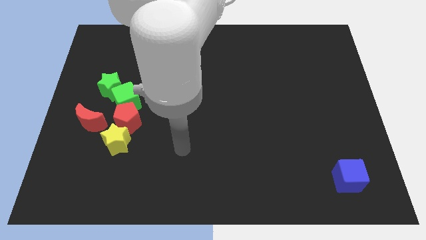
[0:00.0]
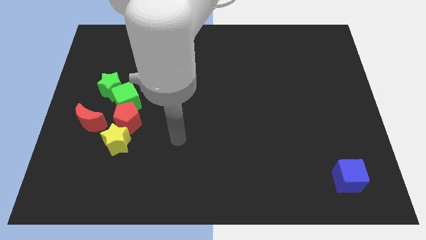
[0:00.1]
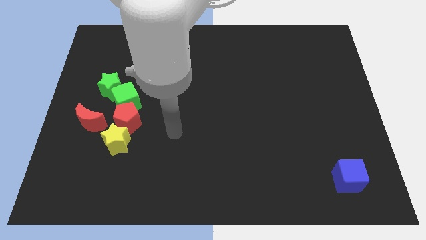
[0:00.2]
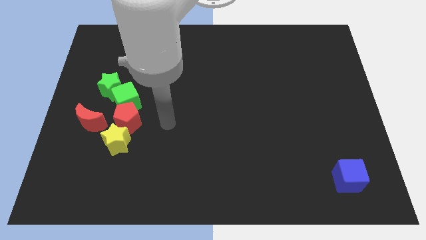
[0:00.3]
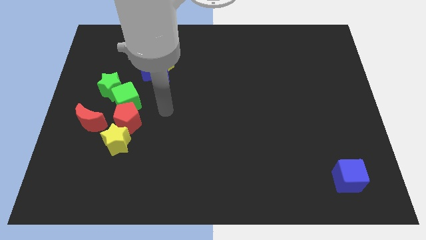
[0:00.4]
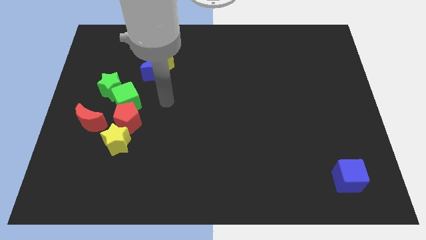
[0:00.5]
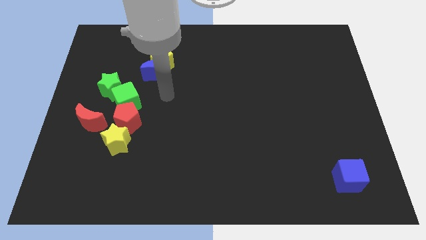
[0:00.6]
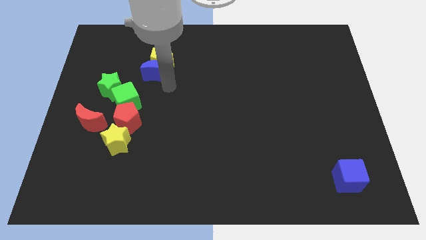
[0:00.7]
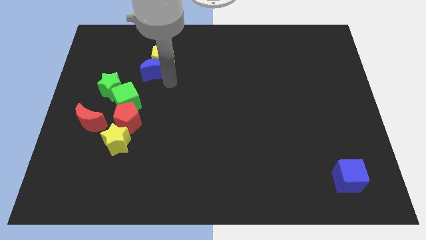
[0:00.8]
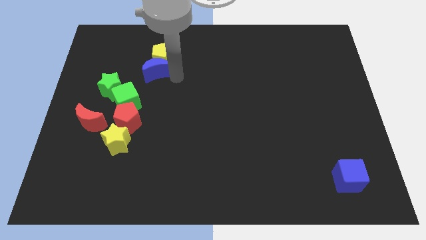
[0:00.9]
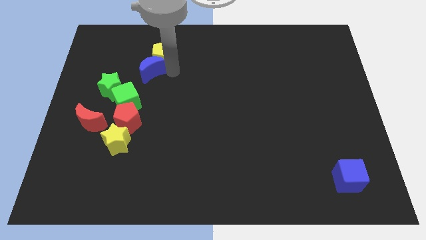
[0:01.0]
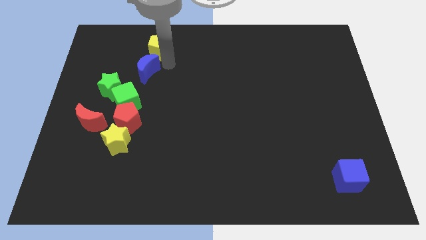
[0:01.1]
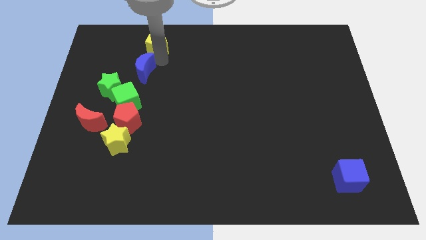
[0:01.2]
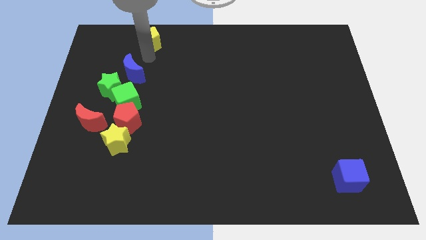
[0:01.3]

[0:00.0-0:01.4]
move the blue moon away from the yellow pentagon

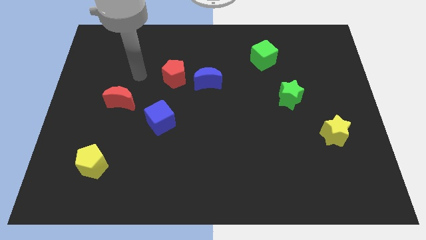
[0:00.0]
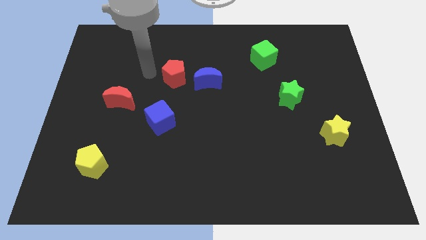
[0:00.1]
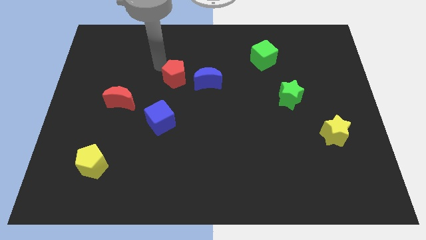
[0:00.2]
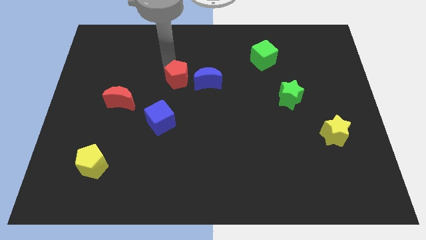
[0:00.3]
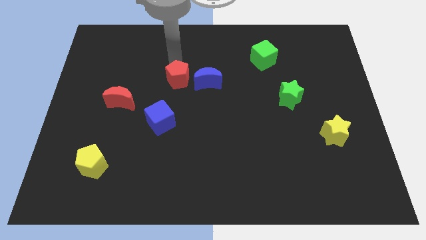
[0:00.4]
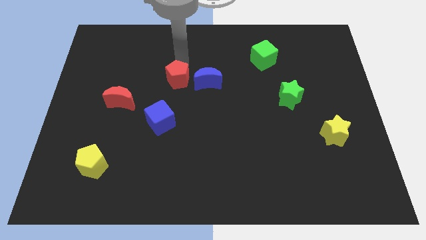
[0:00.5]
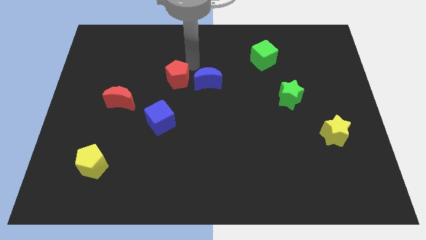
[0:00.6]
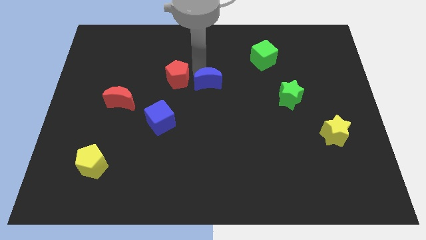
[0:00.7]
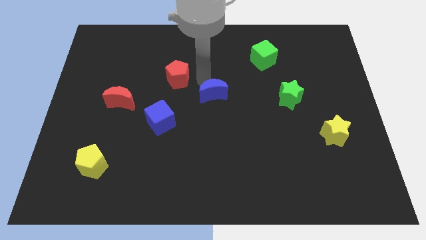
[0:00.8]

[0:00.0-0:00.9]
move the red pentagon away from the blue moon

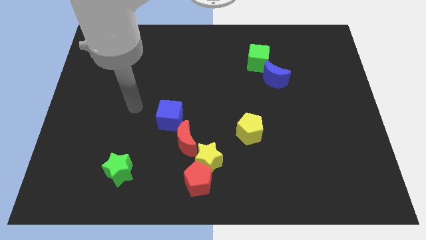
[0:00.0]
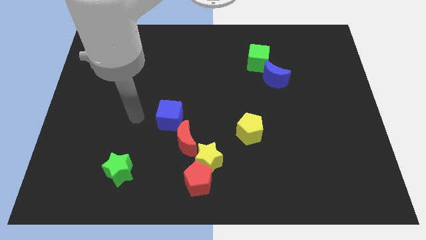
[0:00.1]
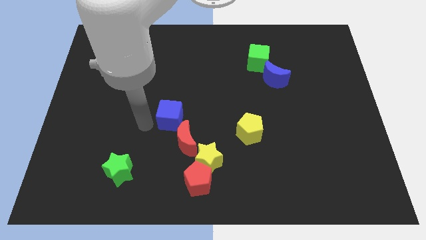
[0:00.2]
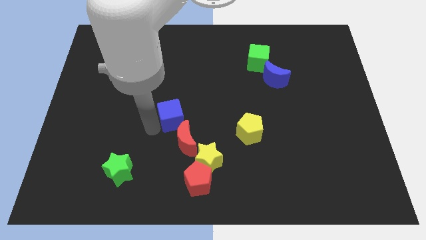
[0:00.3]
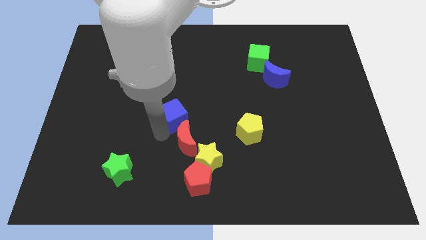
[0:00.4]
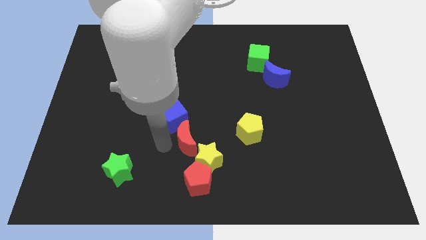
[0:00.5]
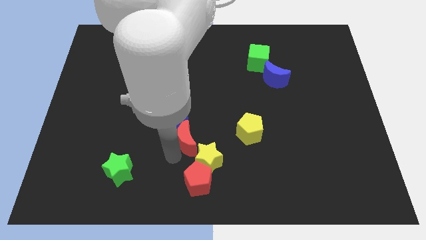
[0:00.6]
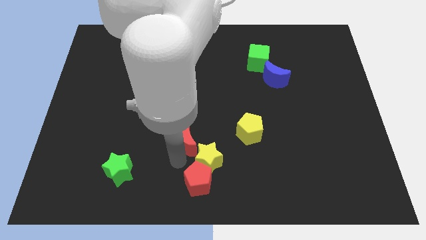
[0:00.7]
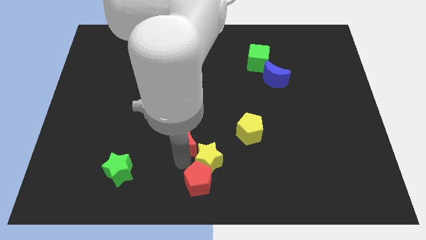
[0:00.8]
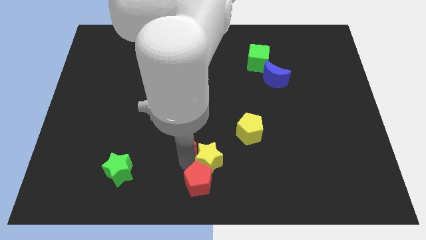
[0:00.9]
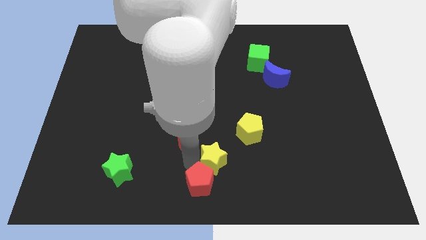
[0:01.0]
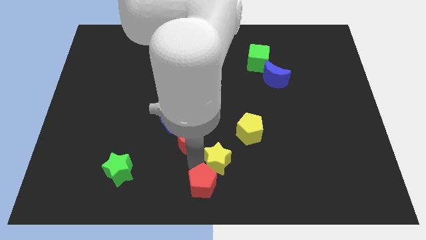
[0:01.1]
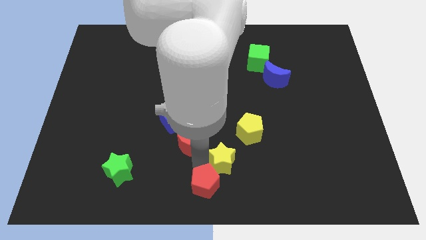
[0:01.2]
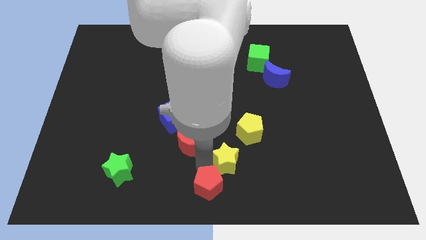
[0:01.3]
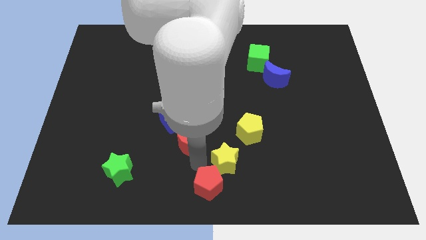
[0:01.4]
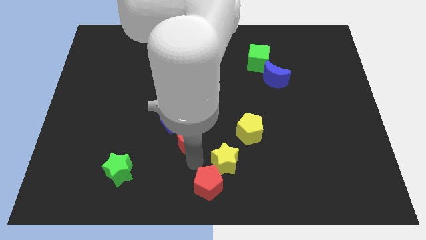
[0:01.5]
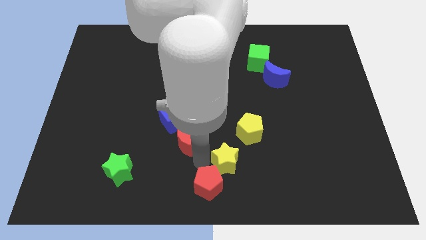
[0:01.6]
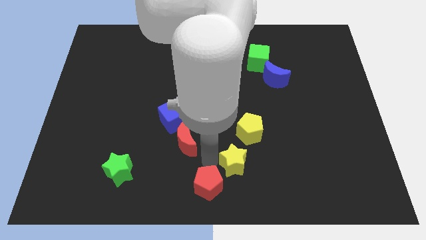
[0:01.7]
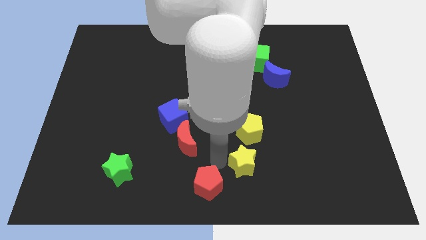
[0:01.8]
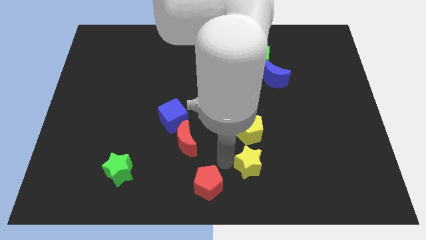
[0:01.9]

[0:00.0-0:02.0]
separate the yellow star from the red pentagon and red moon

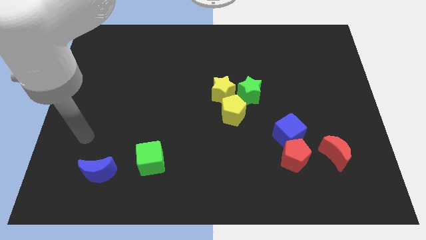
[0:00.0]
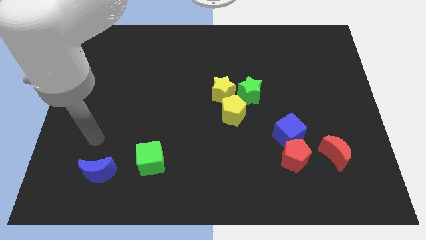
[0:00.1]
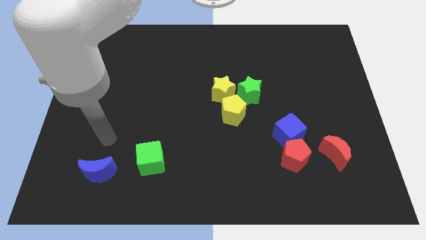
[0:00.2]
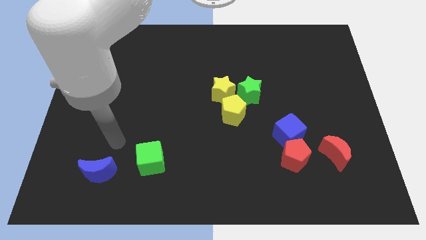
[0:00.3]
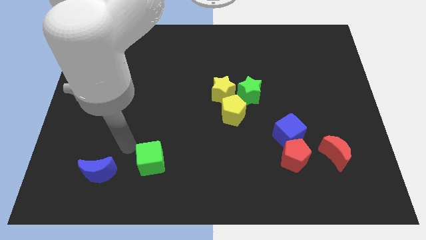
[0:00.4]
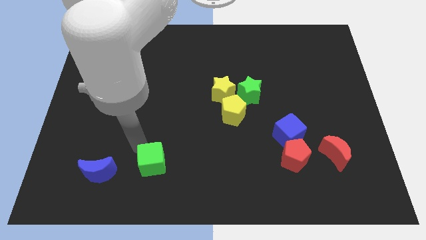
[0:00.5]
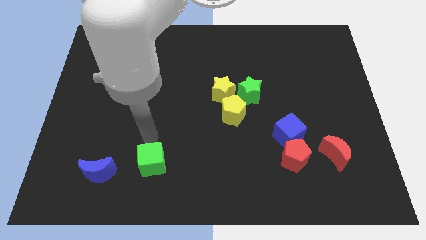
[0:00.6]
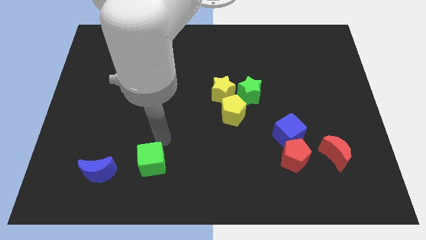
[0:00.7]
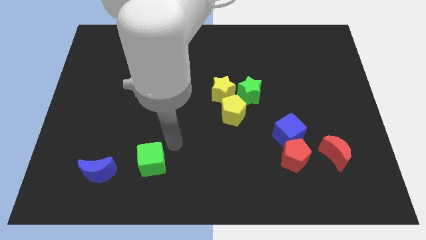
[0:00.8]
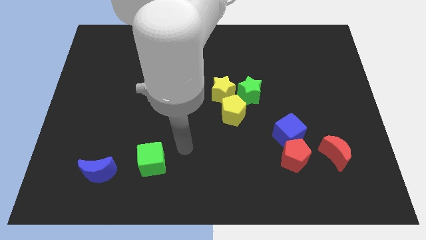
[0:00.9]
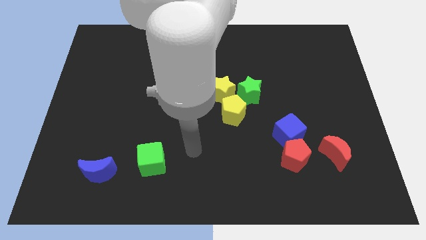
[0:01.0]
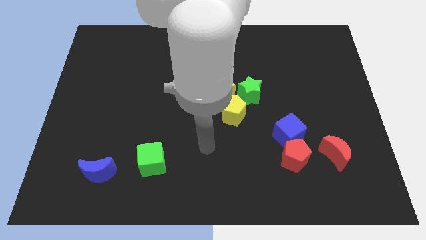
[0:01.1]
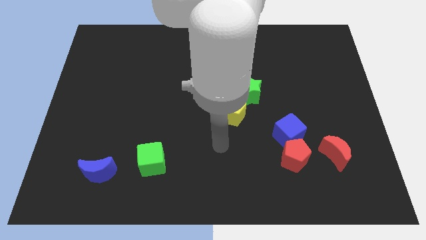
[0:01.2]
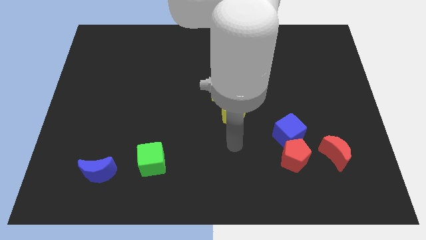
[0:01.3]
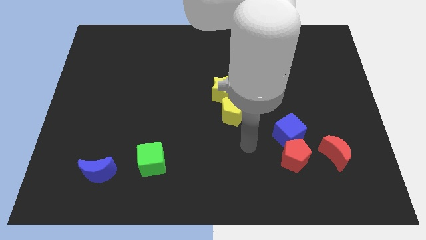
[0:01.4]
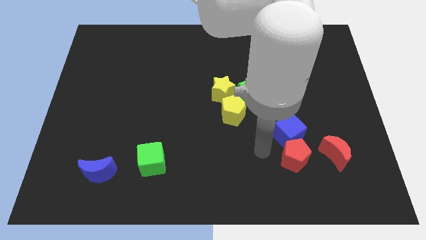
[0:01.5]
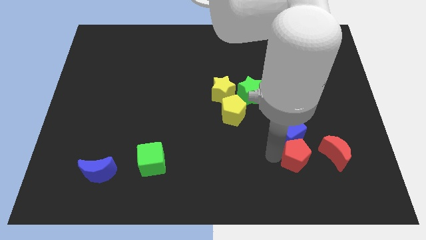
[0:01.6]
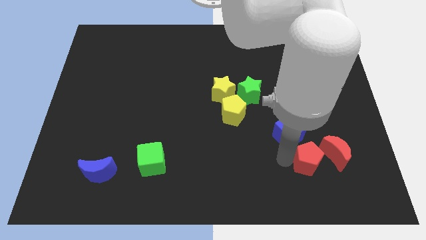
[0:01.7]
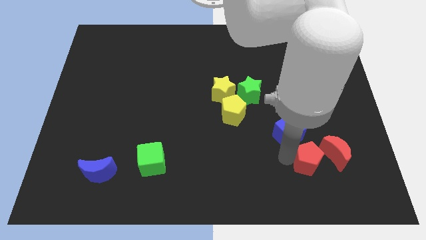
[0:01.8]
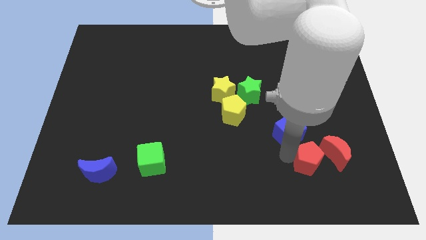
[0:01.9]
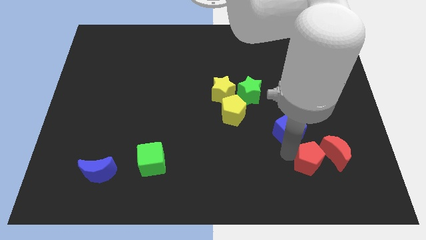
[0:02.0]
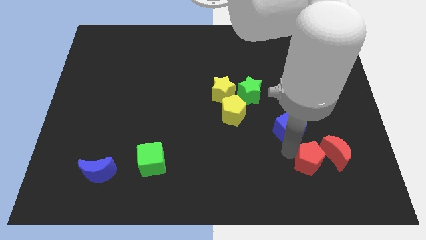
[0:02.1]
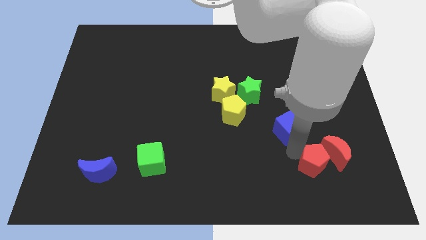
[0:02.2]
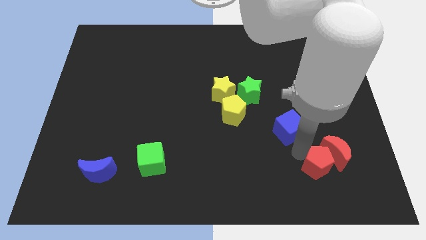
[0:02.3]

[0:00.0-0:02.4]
pull the blue cube apart from the red pentagon

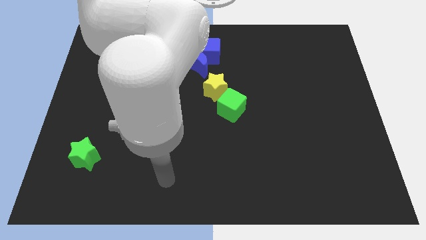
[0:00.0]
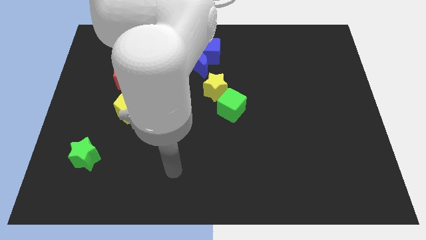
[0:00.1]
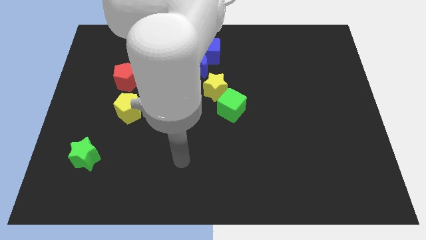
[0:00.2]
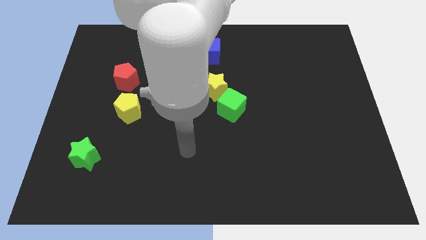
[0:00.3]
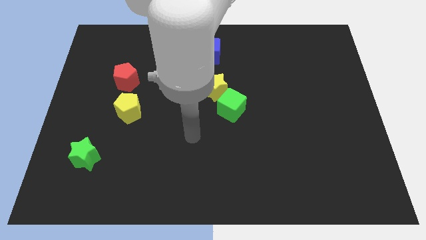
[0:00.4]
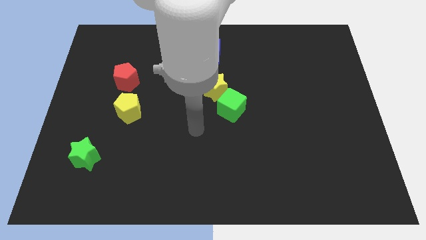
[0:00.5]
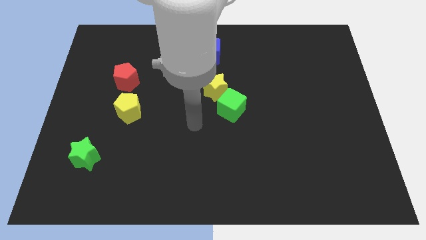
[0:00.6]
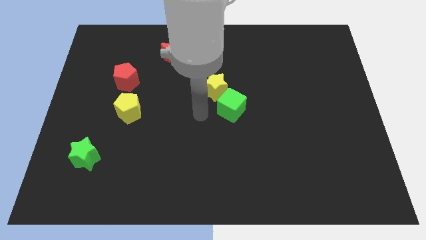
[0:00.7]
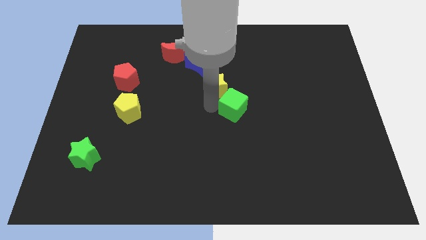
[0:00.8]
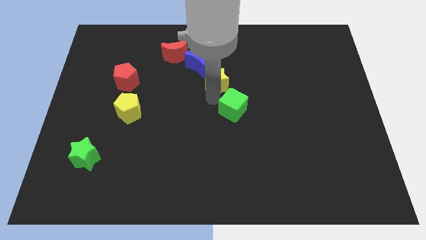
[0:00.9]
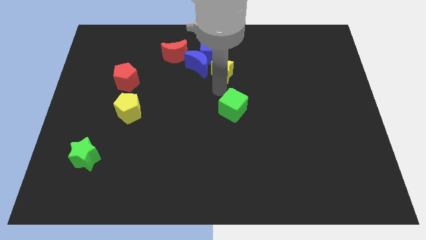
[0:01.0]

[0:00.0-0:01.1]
separate the green cube from the yellow star

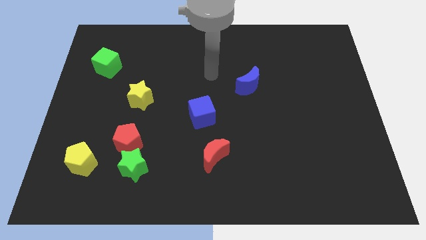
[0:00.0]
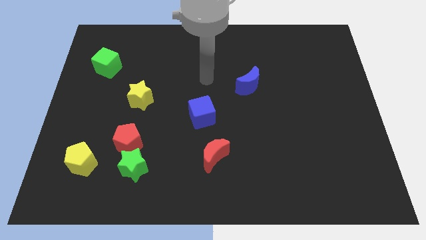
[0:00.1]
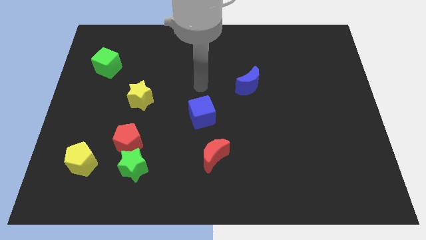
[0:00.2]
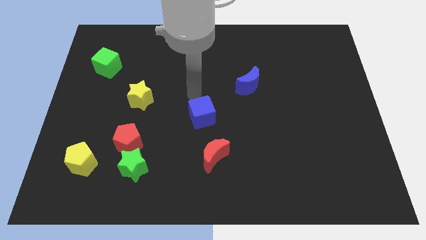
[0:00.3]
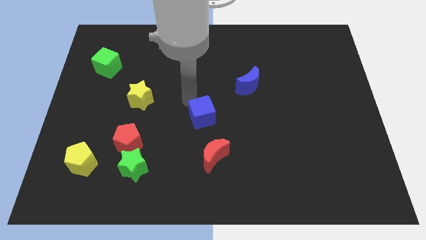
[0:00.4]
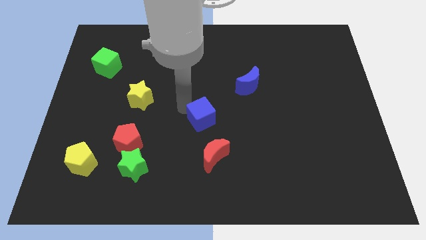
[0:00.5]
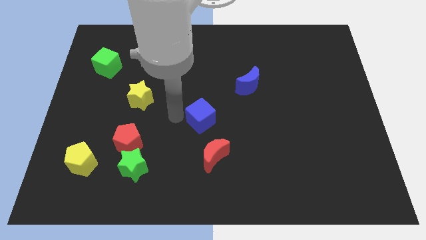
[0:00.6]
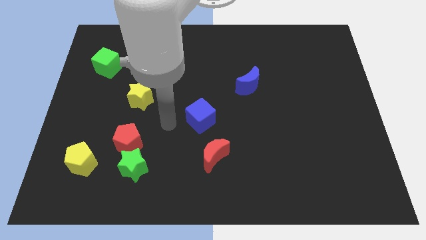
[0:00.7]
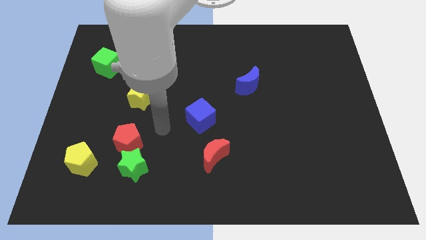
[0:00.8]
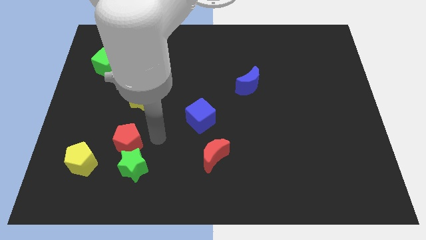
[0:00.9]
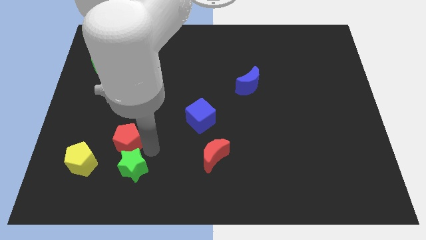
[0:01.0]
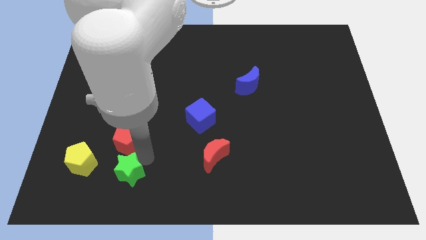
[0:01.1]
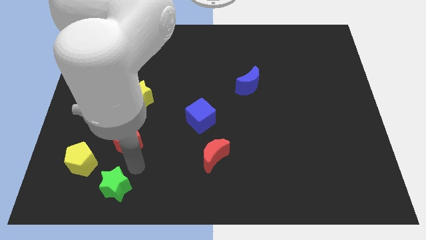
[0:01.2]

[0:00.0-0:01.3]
move the red pentagon away from the green star

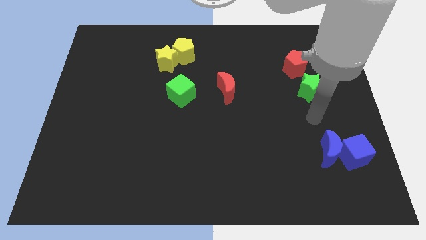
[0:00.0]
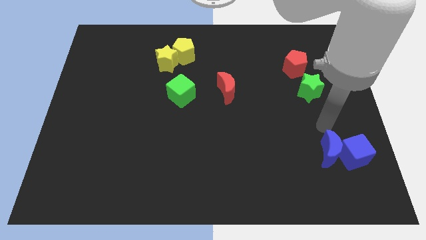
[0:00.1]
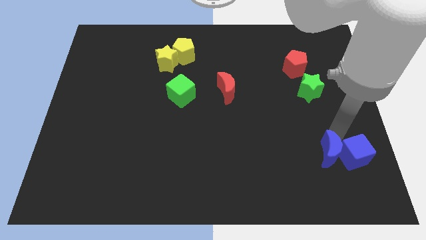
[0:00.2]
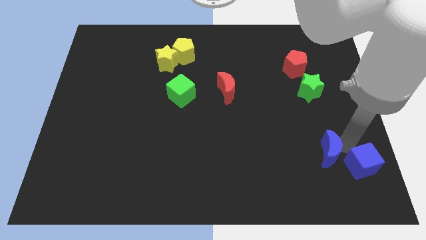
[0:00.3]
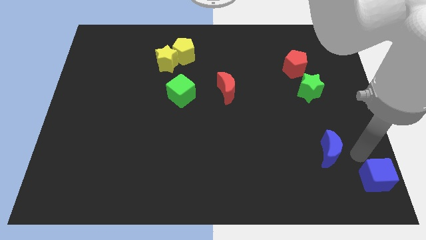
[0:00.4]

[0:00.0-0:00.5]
pull the blue moon apart from the blue cube
